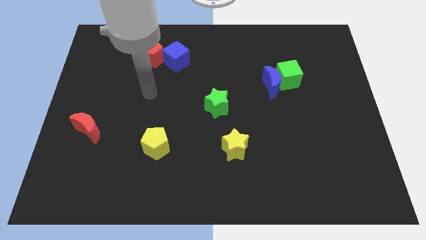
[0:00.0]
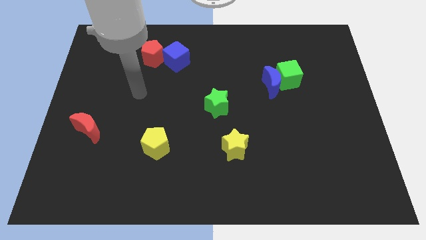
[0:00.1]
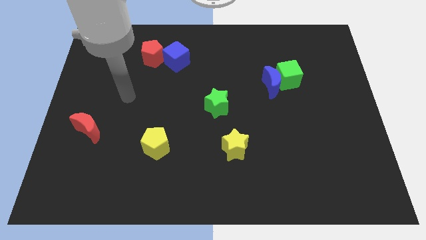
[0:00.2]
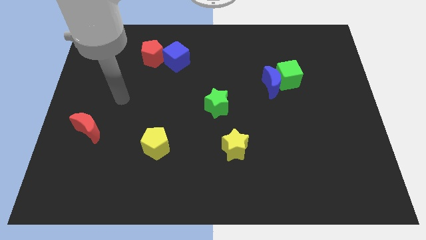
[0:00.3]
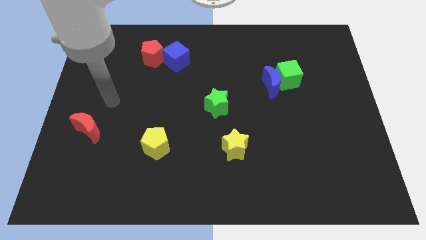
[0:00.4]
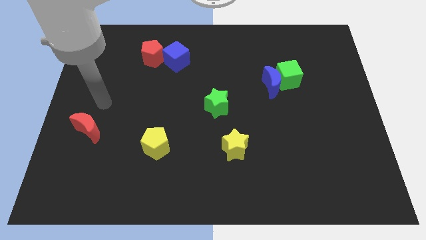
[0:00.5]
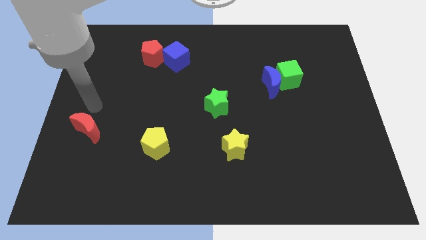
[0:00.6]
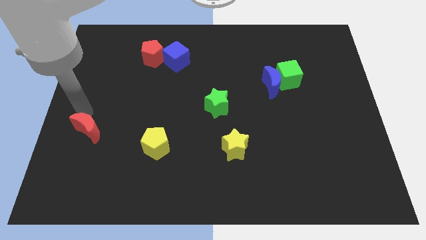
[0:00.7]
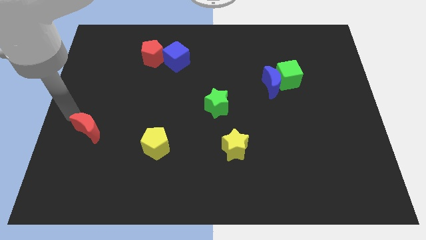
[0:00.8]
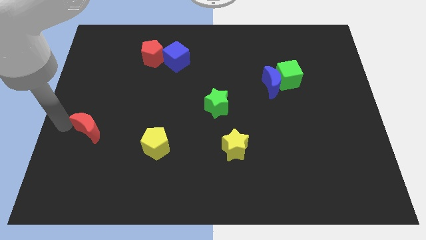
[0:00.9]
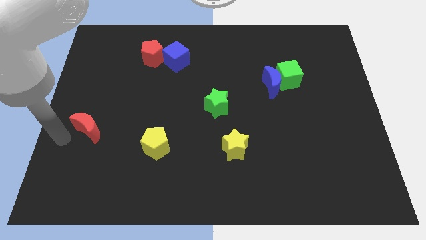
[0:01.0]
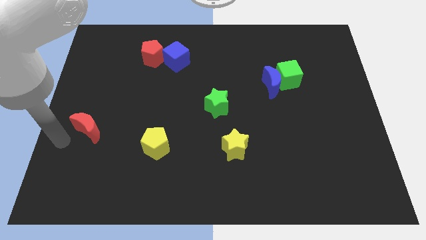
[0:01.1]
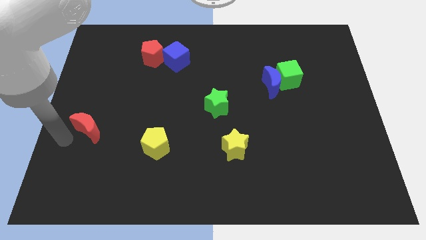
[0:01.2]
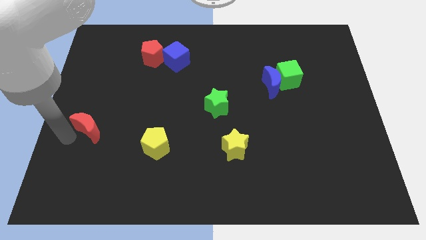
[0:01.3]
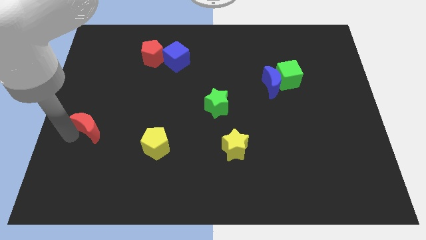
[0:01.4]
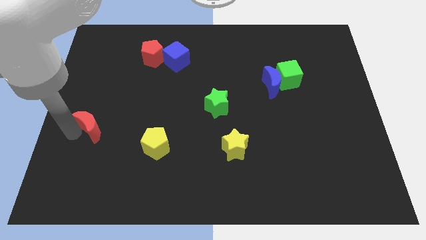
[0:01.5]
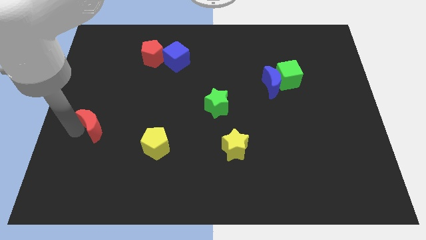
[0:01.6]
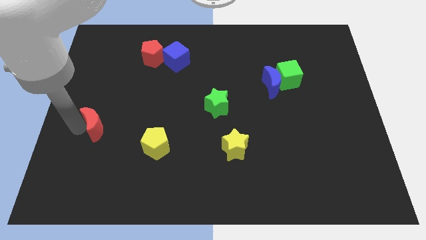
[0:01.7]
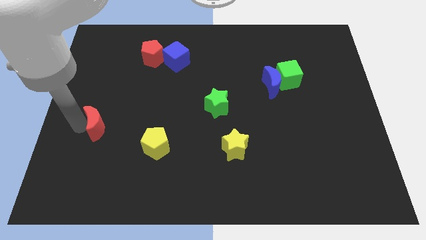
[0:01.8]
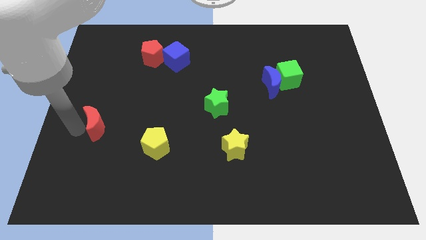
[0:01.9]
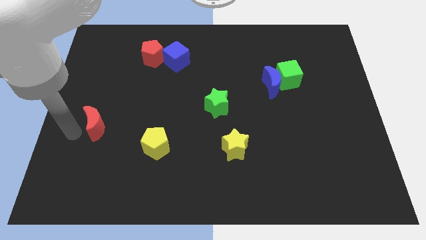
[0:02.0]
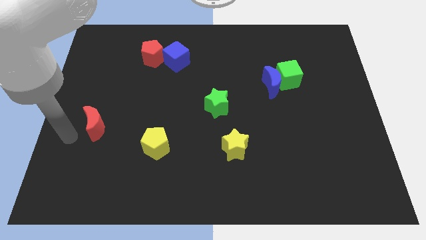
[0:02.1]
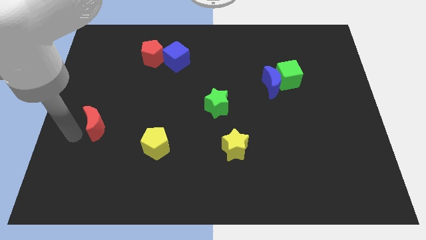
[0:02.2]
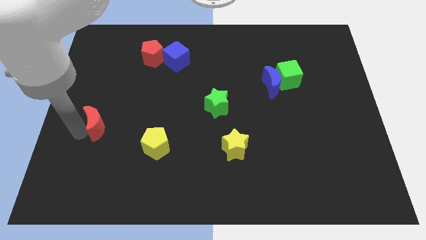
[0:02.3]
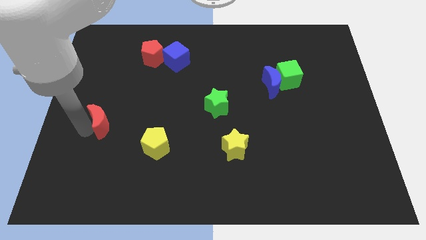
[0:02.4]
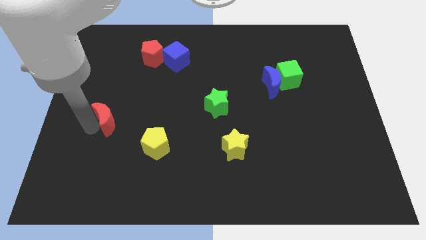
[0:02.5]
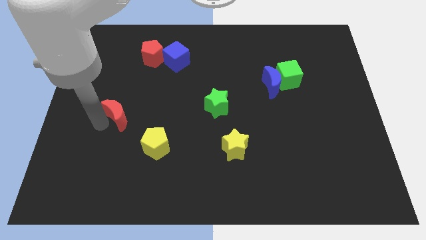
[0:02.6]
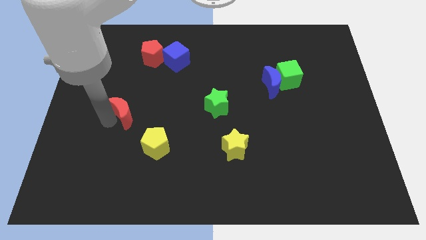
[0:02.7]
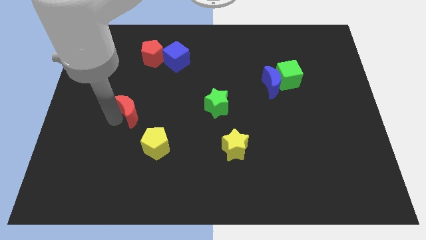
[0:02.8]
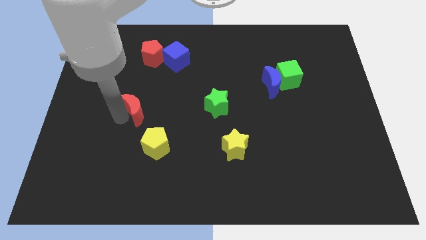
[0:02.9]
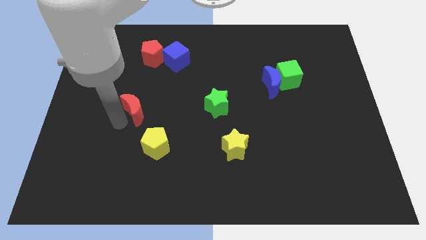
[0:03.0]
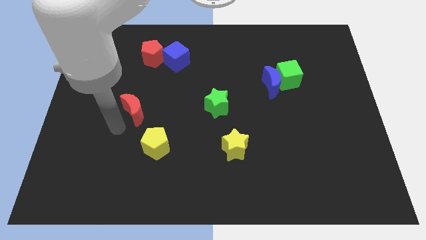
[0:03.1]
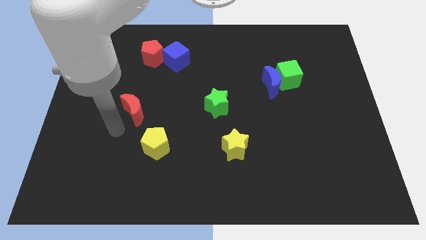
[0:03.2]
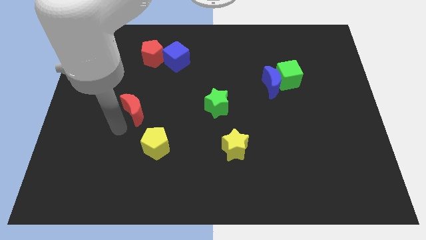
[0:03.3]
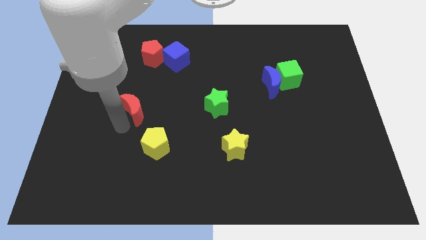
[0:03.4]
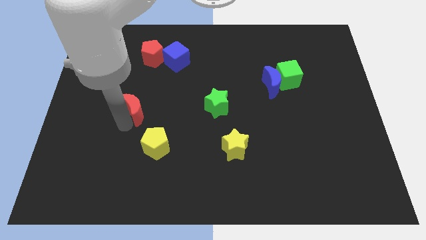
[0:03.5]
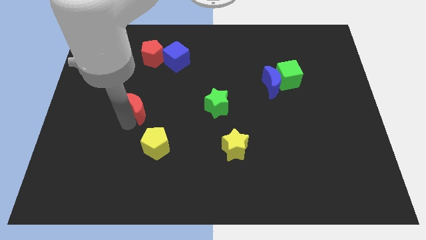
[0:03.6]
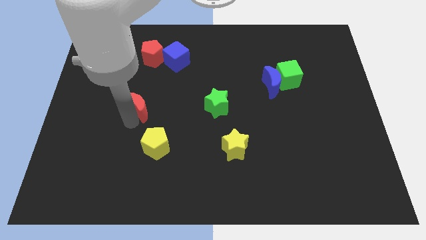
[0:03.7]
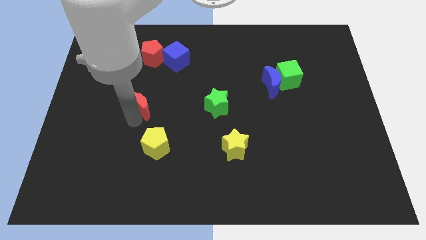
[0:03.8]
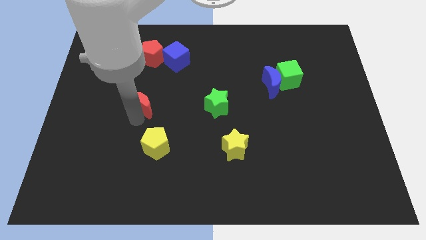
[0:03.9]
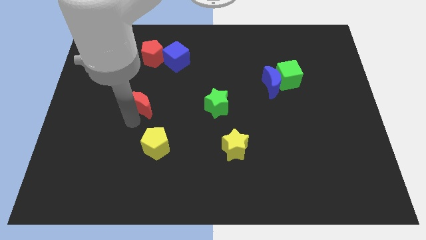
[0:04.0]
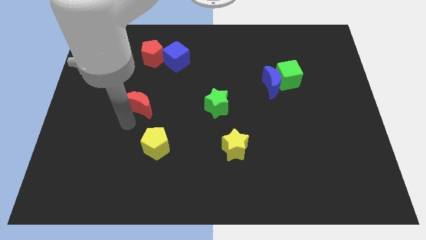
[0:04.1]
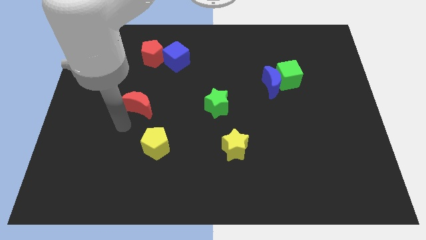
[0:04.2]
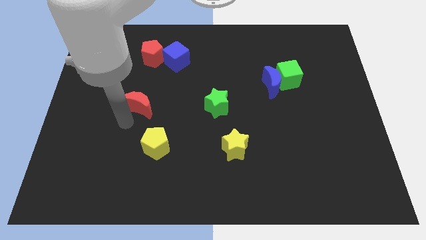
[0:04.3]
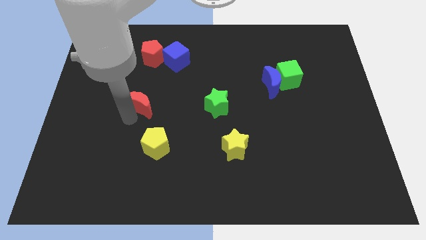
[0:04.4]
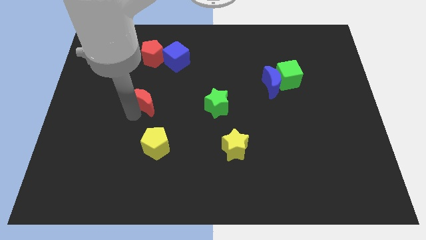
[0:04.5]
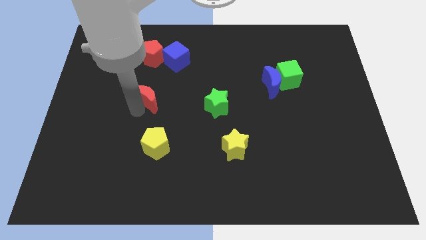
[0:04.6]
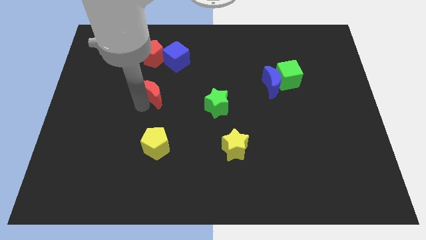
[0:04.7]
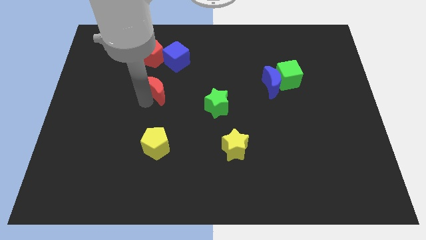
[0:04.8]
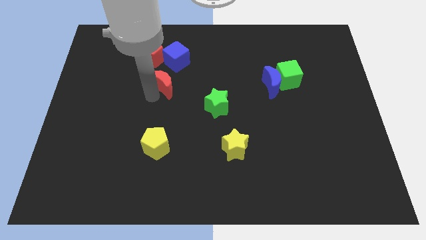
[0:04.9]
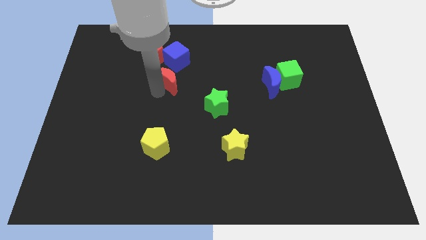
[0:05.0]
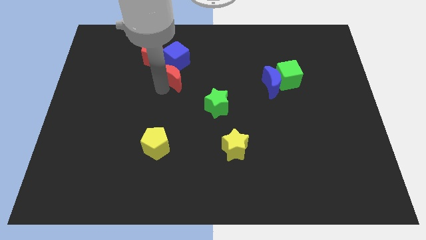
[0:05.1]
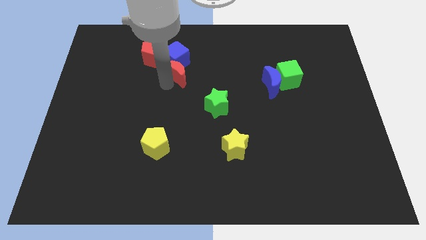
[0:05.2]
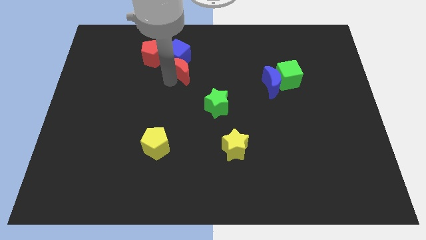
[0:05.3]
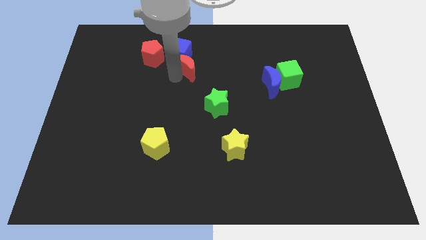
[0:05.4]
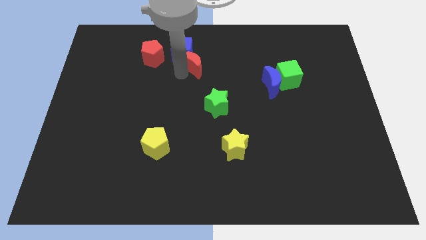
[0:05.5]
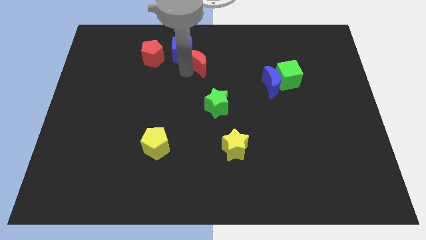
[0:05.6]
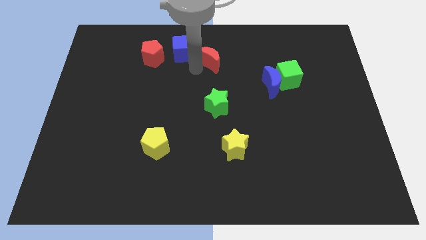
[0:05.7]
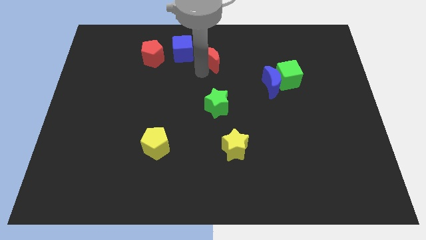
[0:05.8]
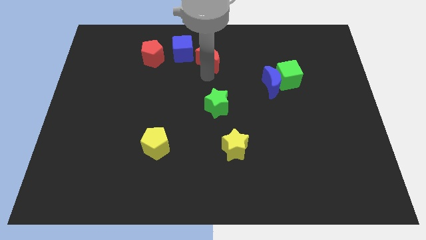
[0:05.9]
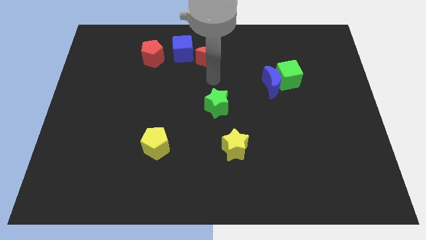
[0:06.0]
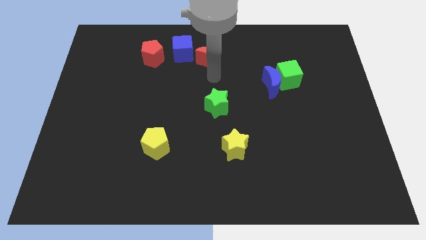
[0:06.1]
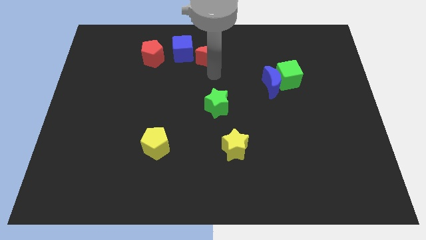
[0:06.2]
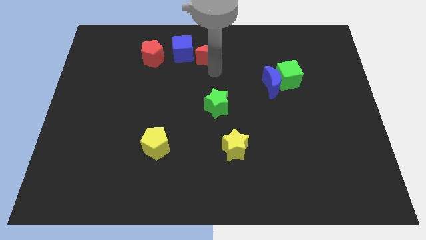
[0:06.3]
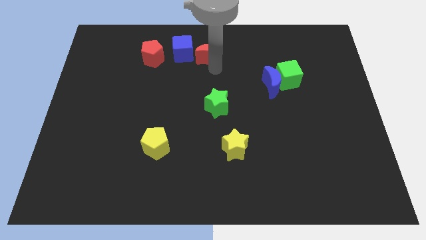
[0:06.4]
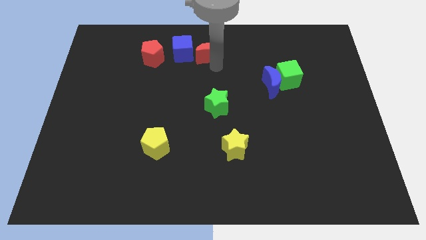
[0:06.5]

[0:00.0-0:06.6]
push the red moon to the top

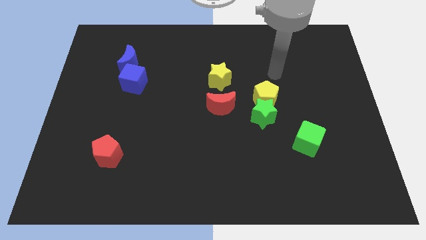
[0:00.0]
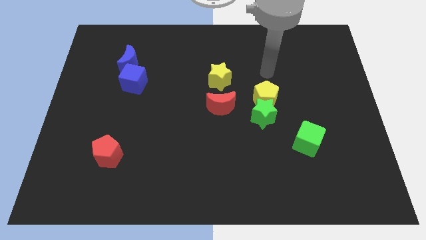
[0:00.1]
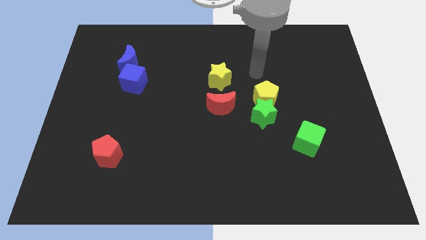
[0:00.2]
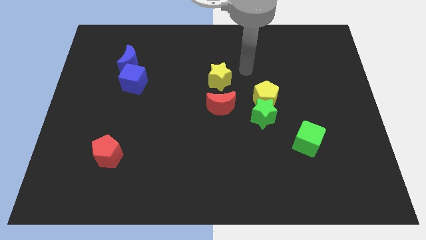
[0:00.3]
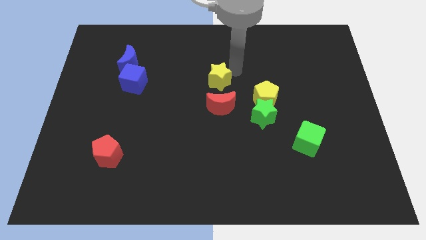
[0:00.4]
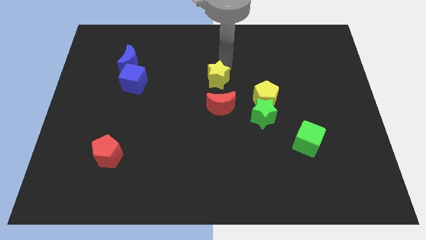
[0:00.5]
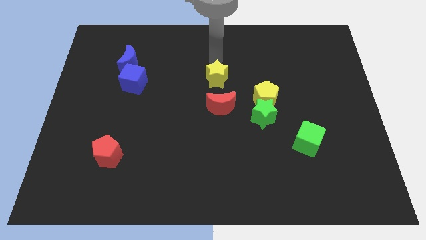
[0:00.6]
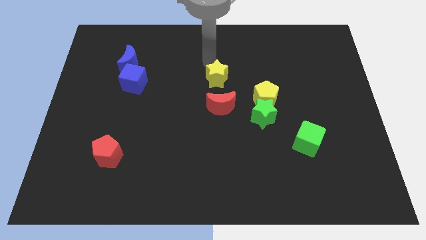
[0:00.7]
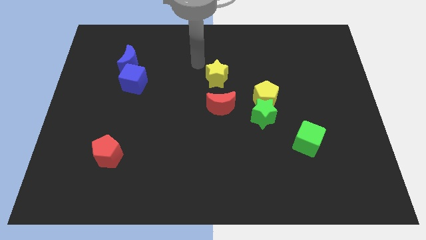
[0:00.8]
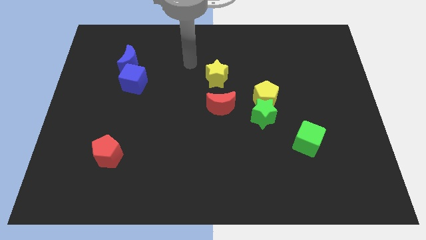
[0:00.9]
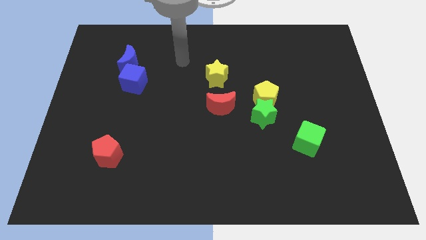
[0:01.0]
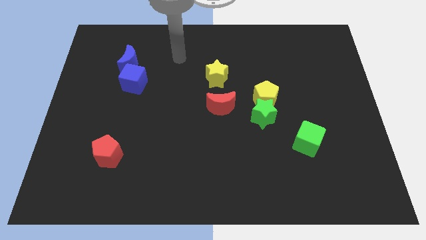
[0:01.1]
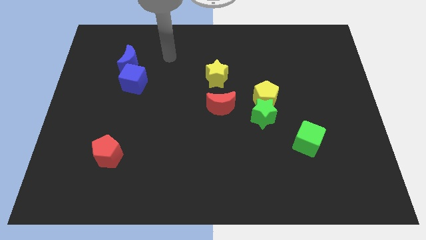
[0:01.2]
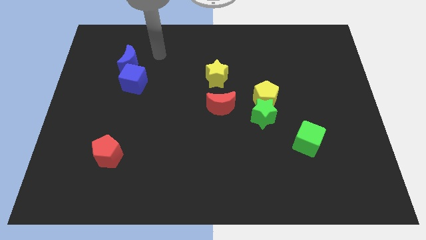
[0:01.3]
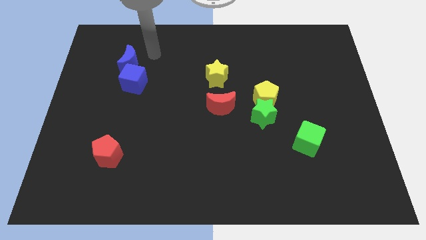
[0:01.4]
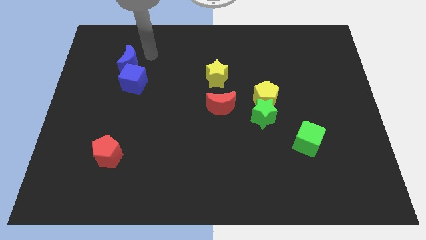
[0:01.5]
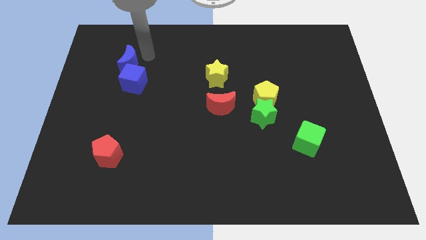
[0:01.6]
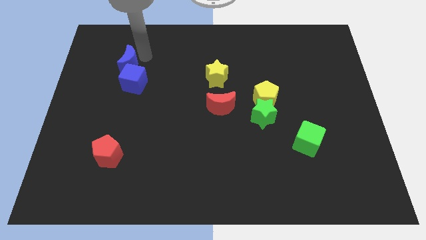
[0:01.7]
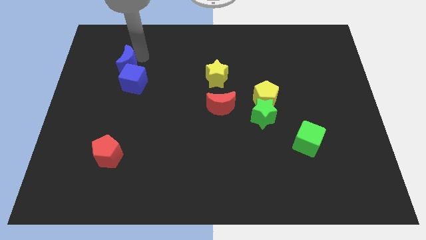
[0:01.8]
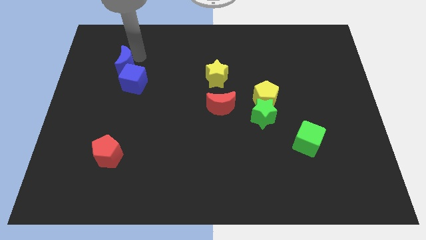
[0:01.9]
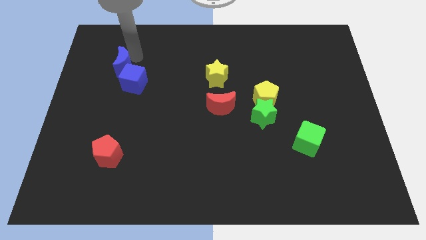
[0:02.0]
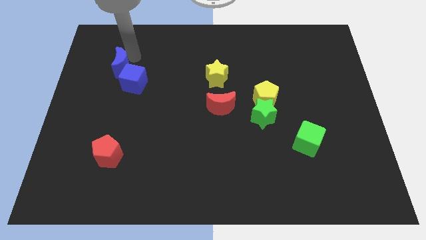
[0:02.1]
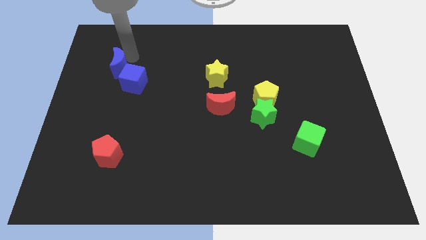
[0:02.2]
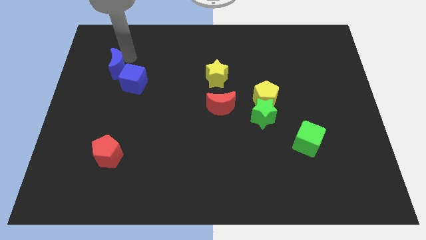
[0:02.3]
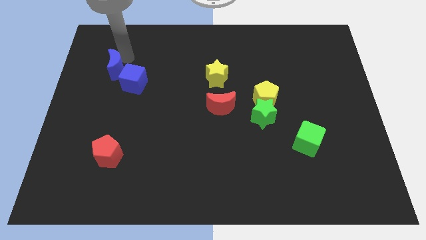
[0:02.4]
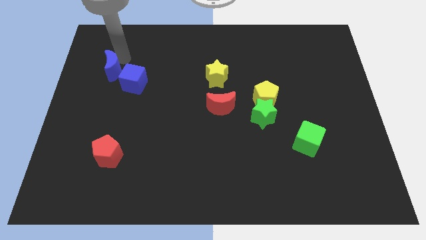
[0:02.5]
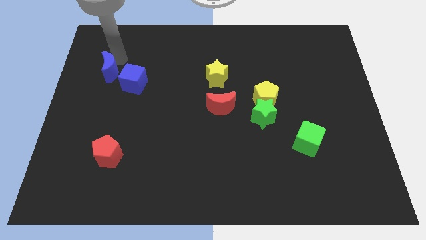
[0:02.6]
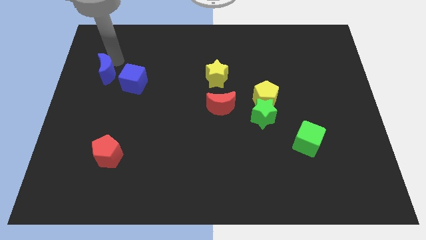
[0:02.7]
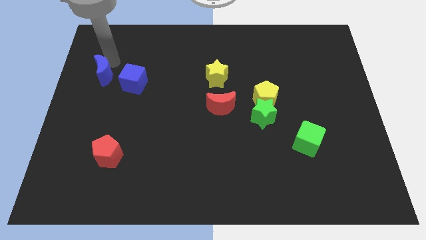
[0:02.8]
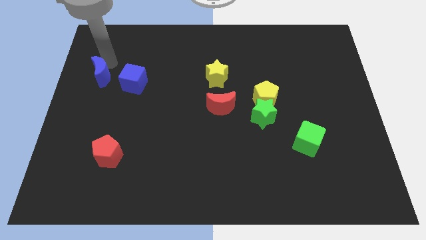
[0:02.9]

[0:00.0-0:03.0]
move the blue moon to the left side of the board
